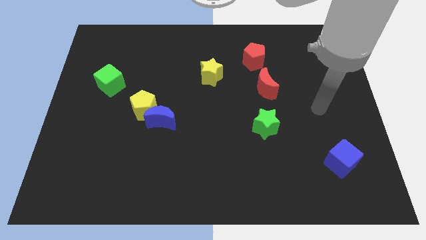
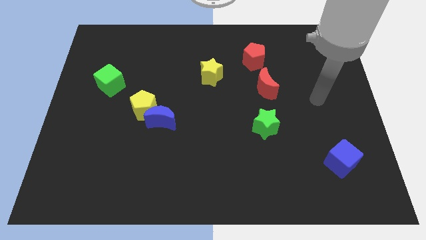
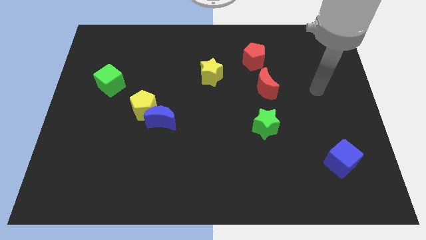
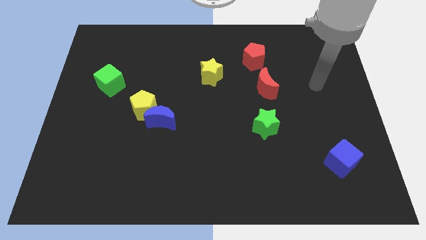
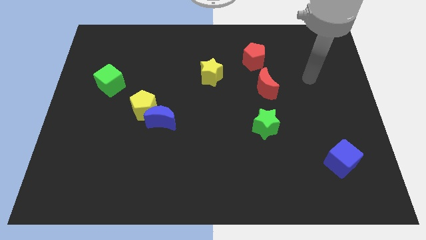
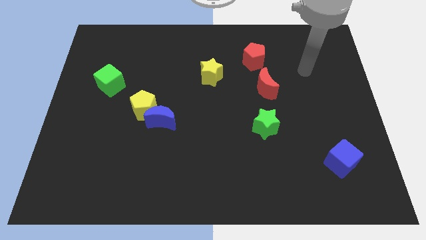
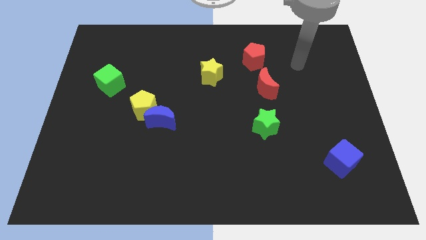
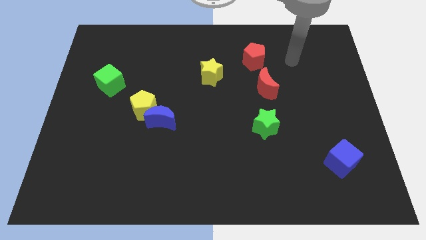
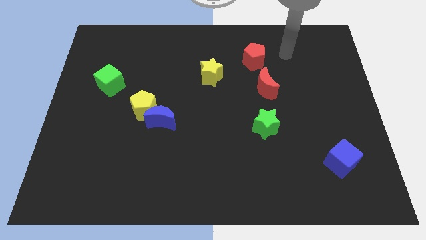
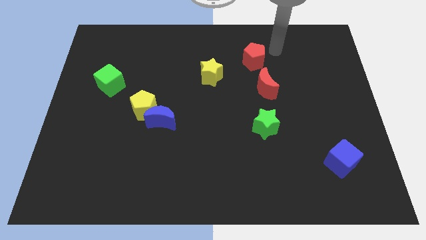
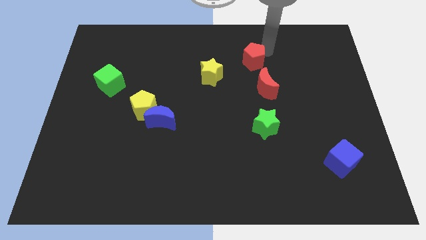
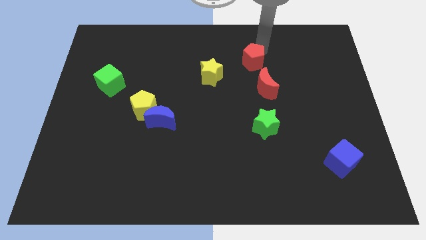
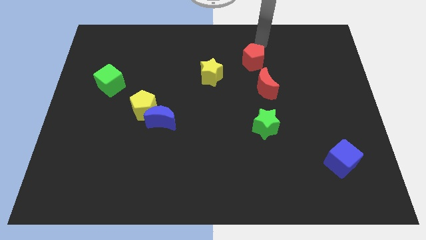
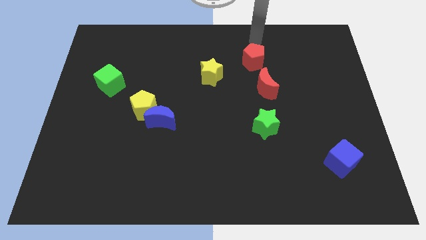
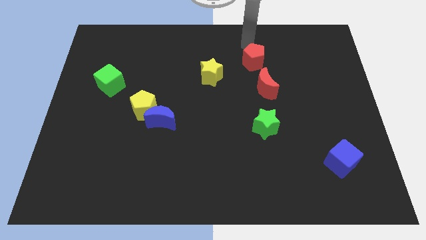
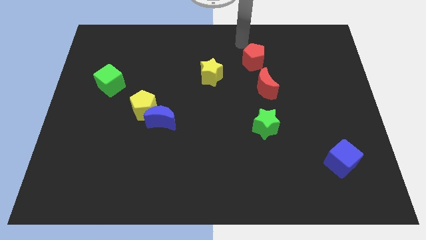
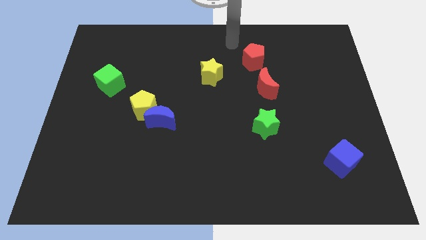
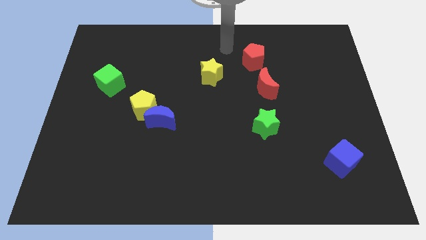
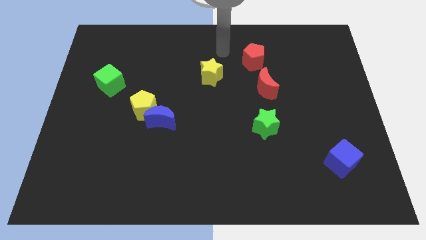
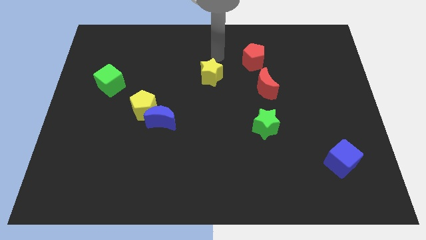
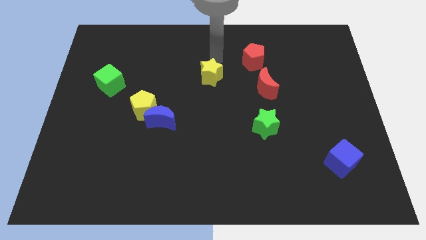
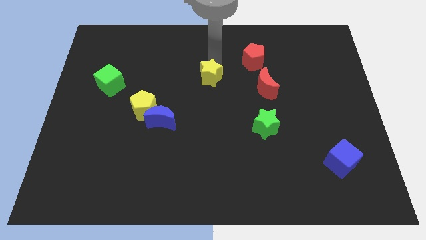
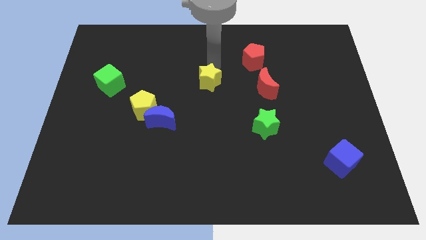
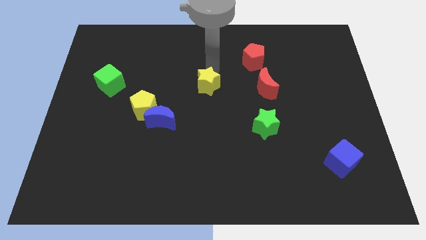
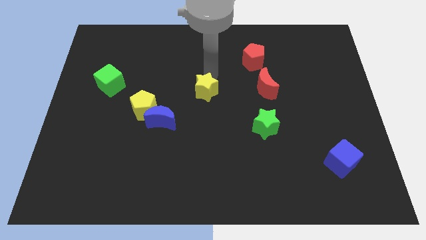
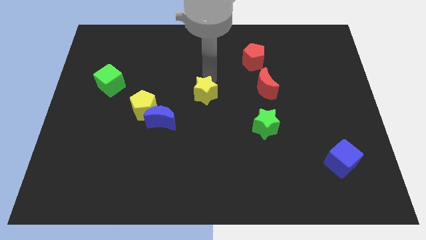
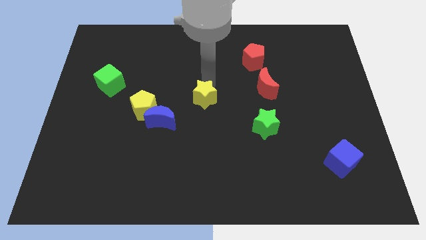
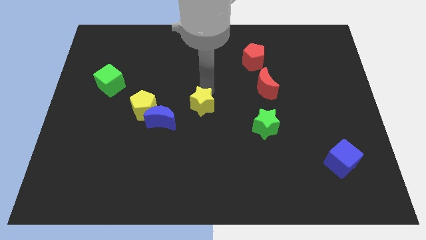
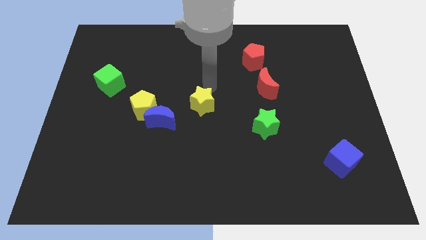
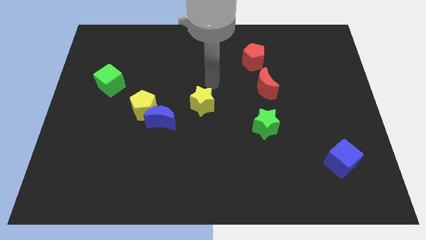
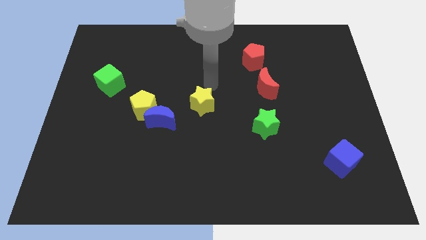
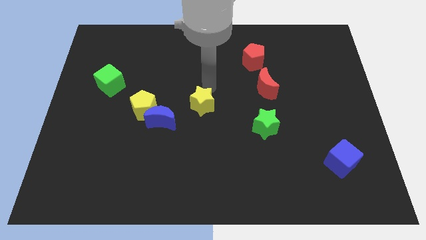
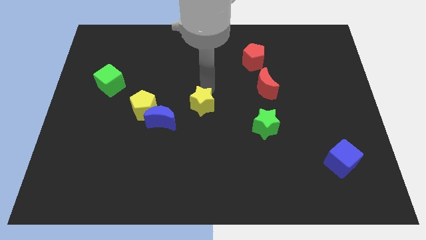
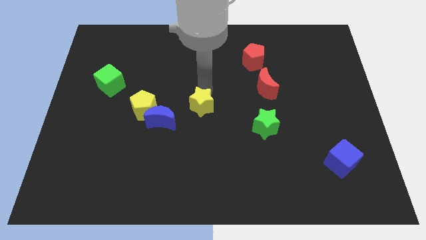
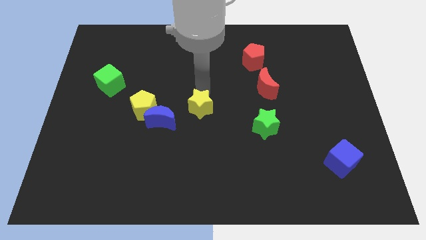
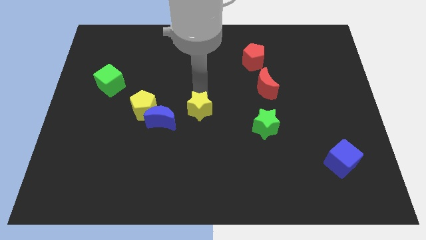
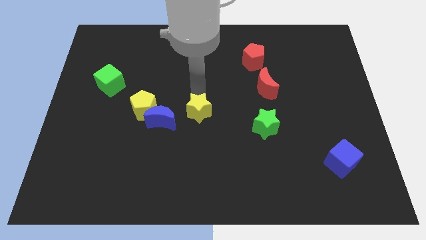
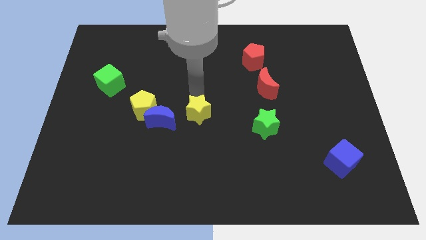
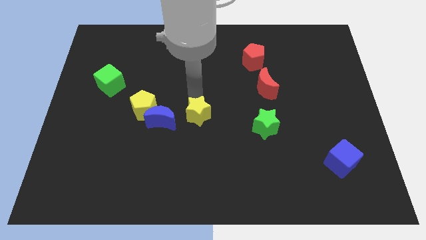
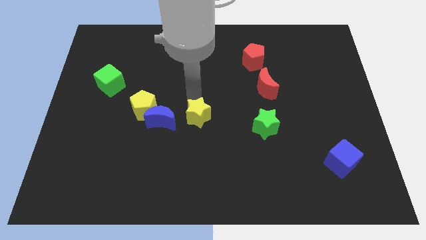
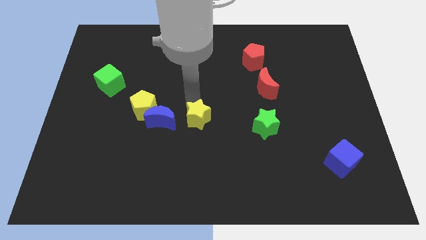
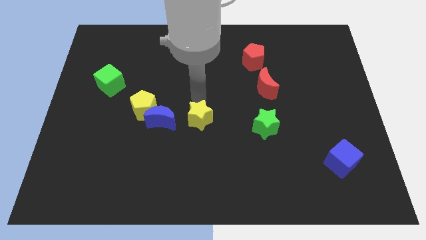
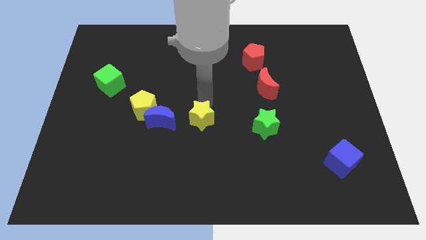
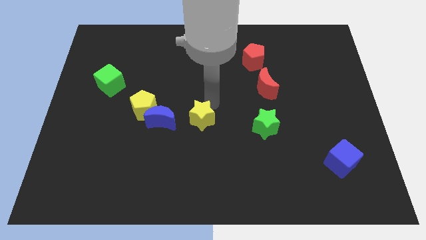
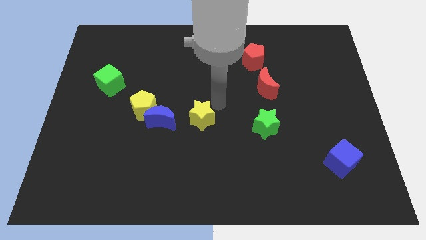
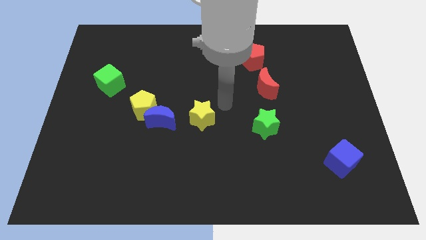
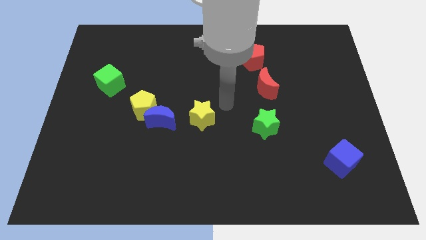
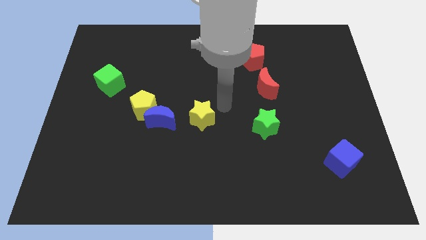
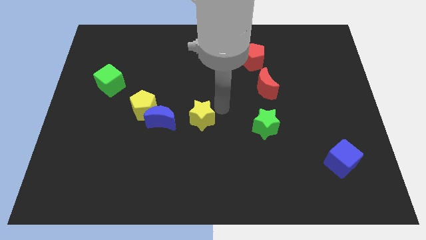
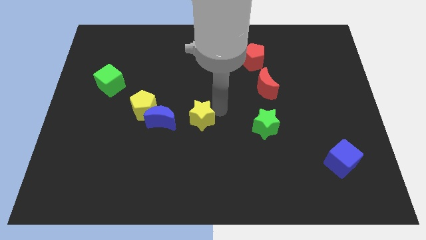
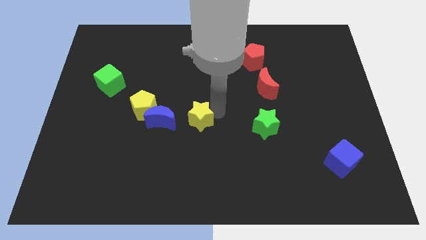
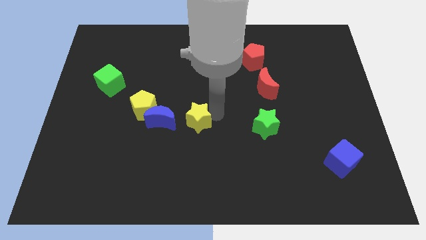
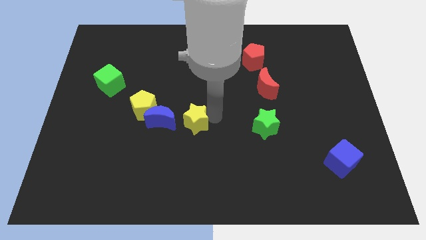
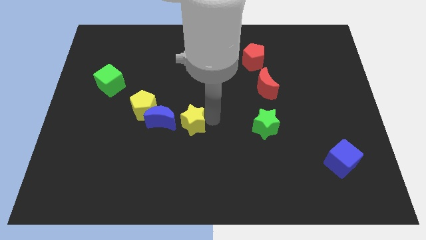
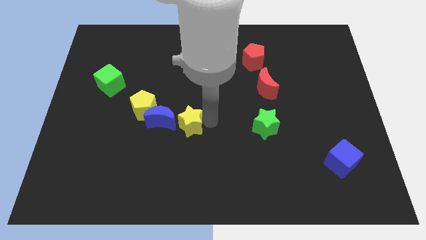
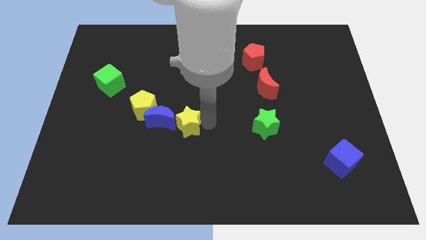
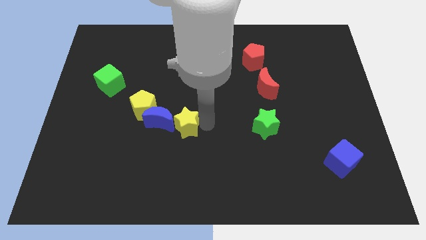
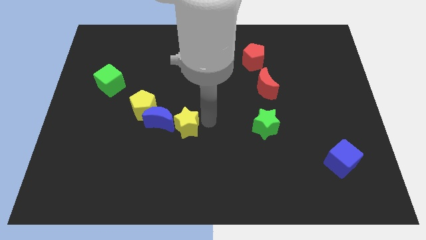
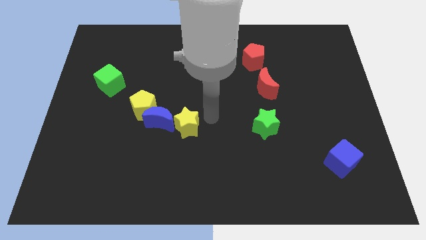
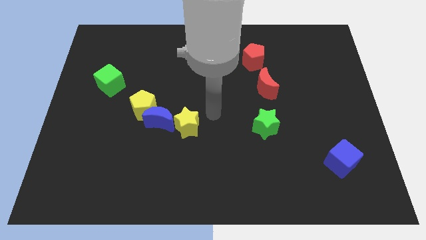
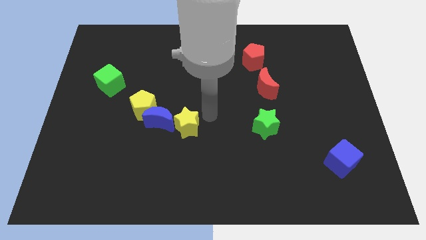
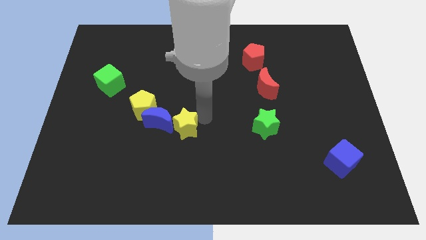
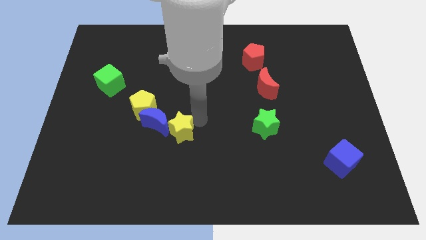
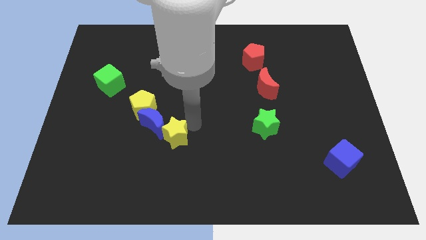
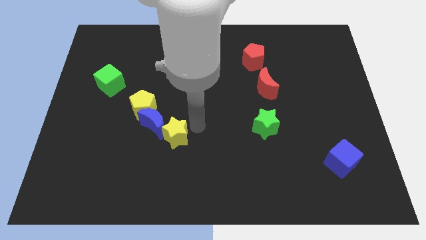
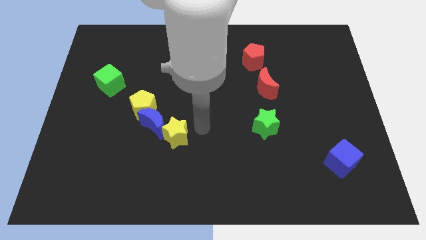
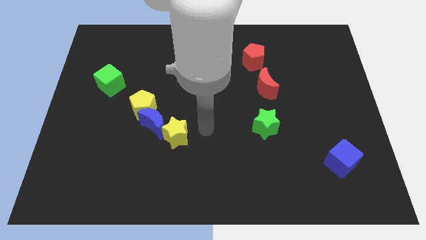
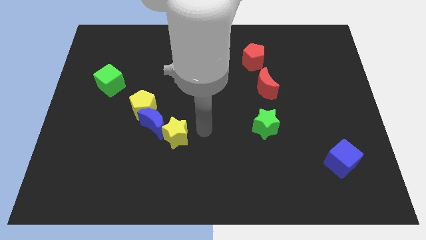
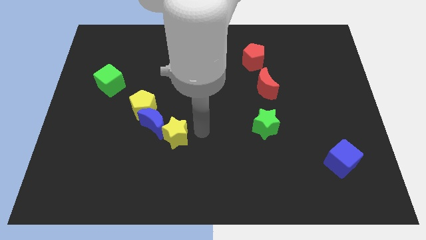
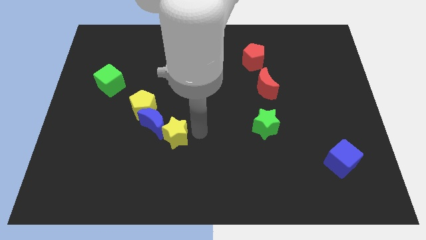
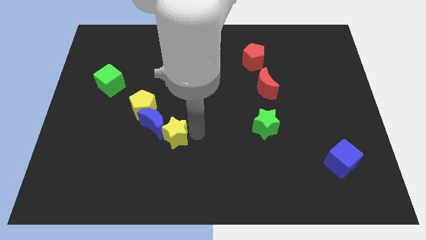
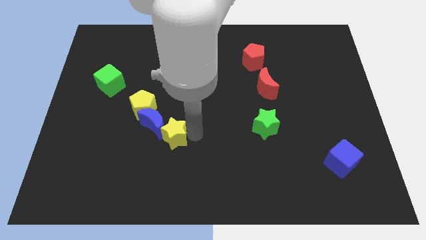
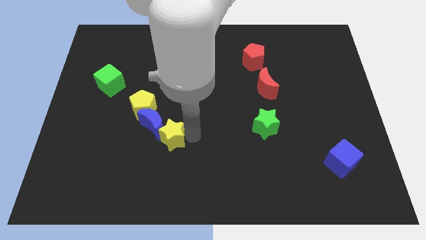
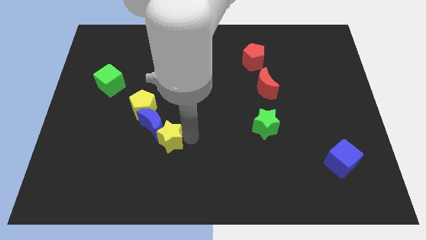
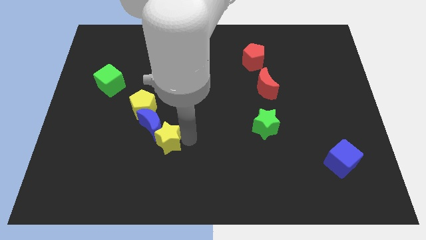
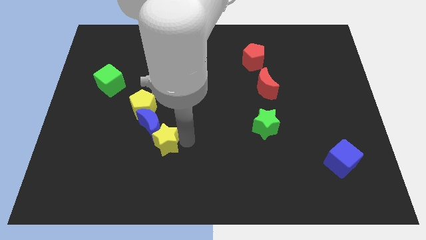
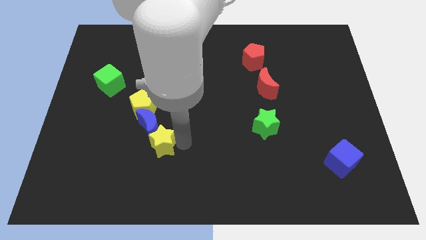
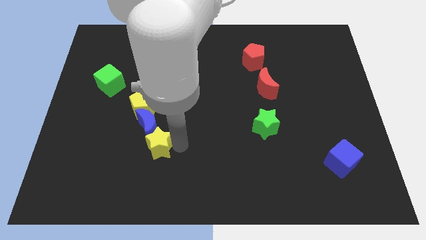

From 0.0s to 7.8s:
push the yellow star down and to the left diagonally
